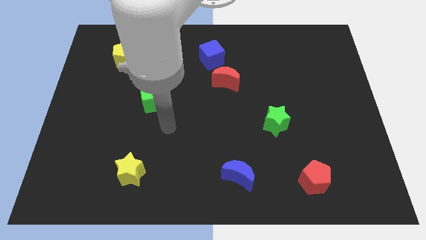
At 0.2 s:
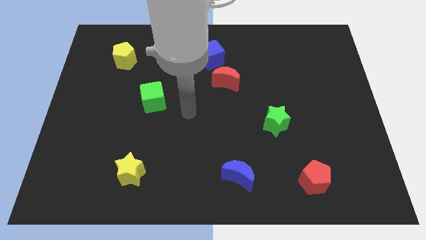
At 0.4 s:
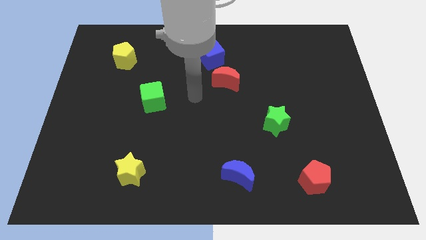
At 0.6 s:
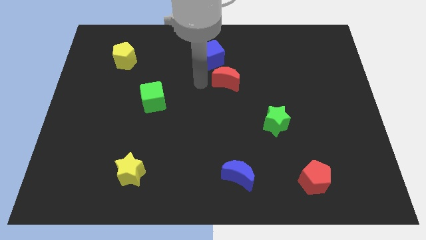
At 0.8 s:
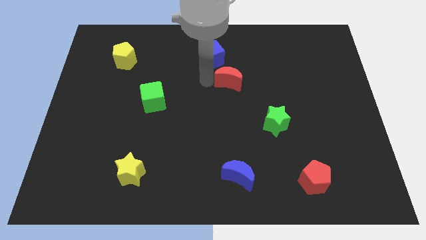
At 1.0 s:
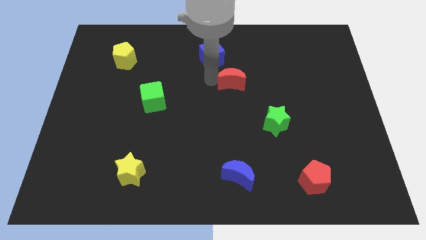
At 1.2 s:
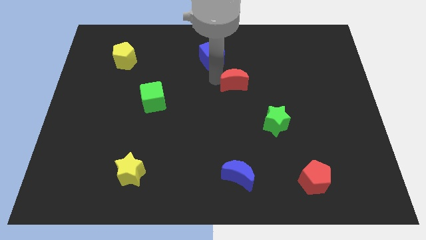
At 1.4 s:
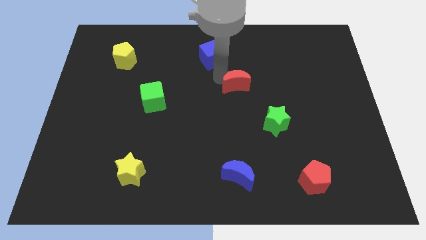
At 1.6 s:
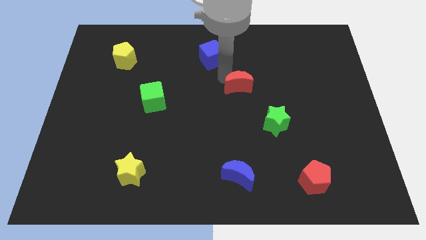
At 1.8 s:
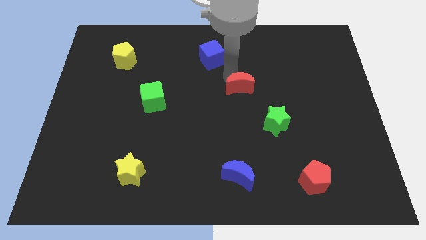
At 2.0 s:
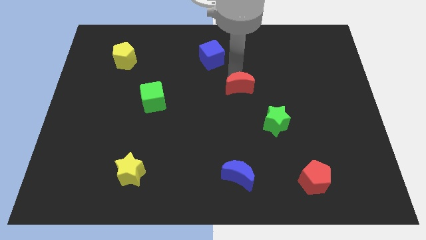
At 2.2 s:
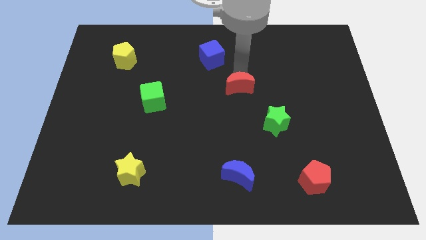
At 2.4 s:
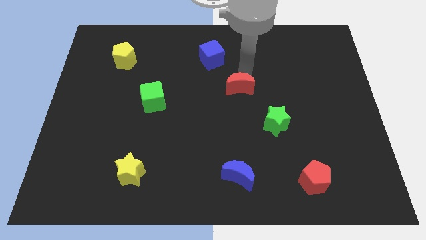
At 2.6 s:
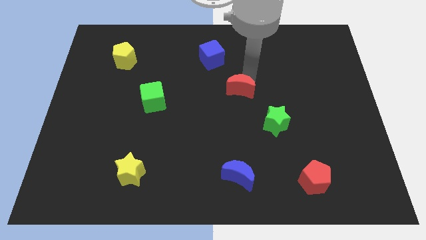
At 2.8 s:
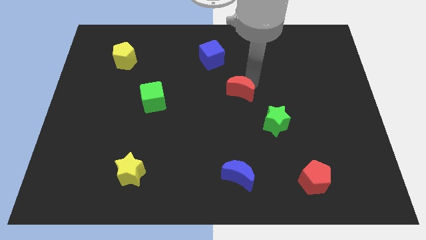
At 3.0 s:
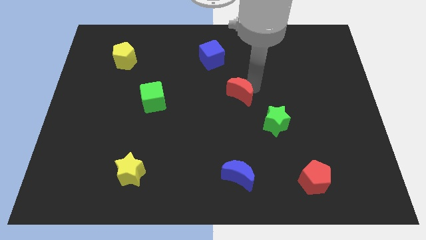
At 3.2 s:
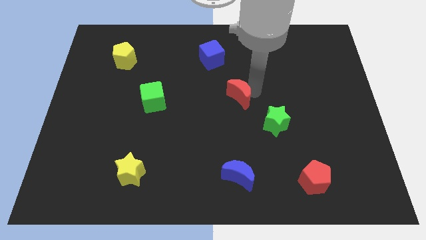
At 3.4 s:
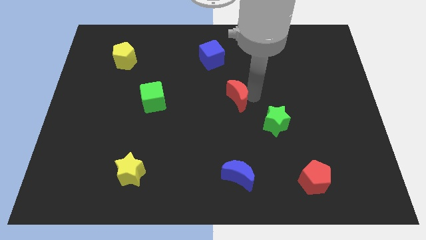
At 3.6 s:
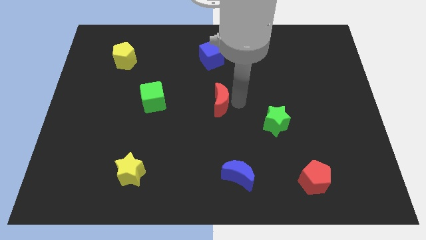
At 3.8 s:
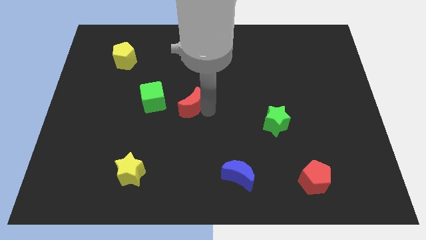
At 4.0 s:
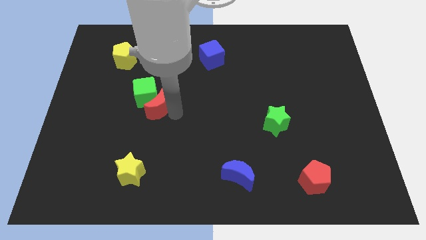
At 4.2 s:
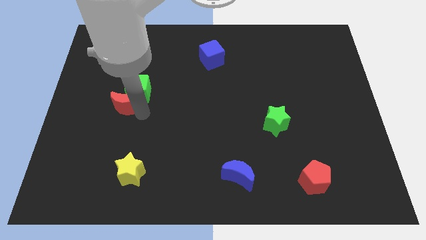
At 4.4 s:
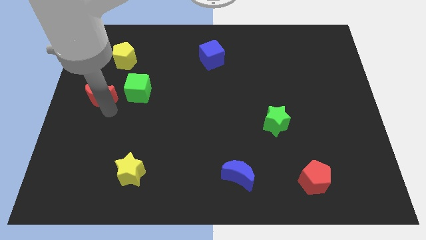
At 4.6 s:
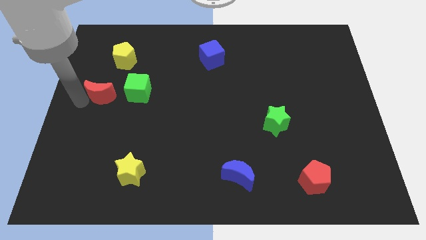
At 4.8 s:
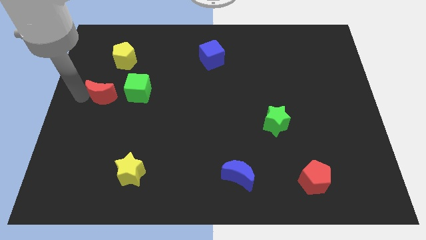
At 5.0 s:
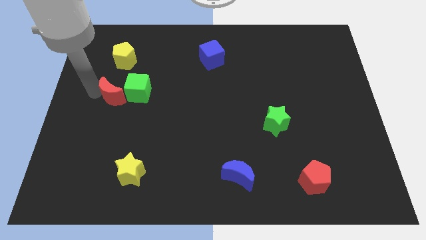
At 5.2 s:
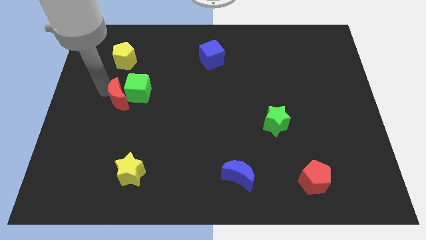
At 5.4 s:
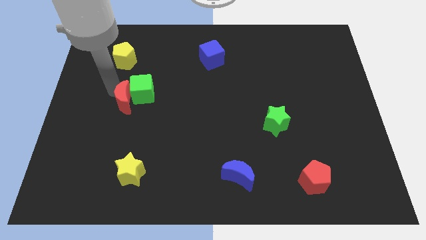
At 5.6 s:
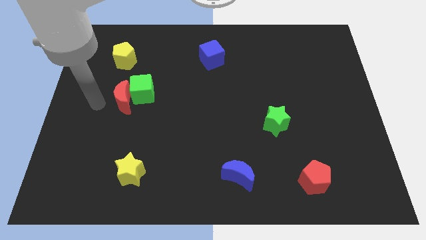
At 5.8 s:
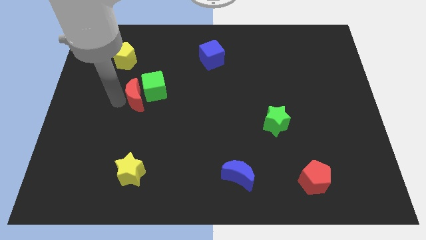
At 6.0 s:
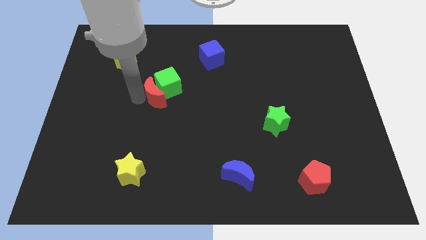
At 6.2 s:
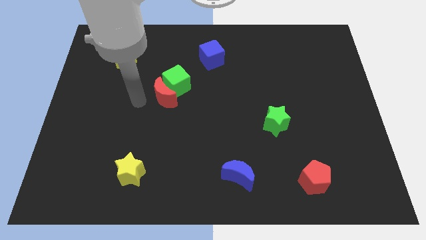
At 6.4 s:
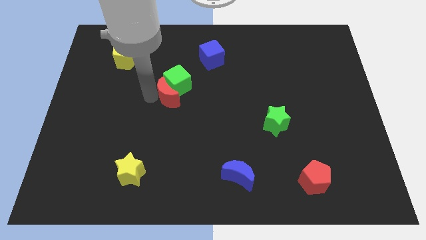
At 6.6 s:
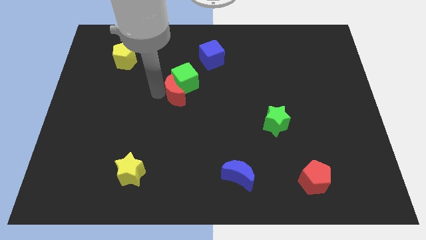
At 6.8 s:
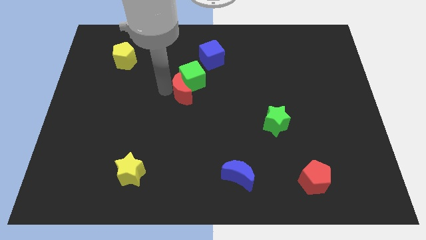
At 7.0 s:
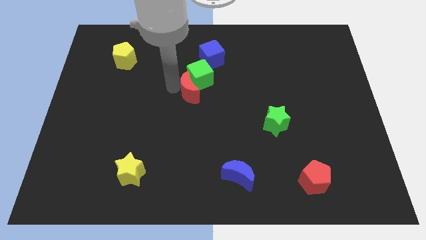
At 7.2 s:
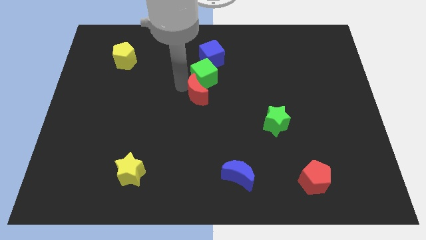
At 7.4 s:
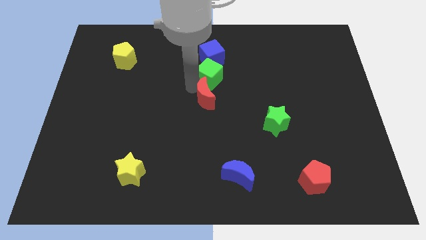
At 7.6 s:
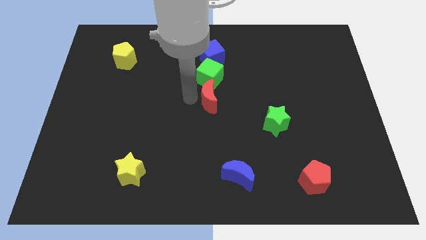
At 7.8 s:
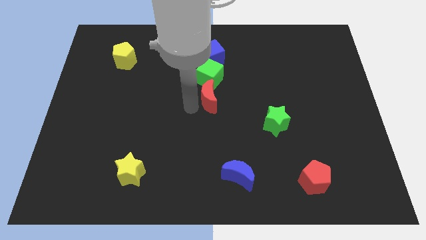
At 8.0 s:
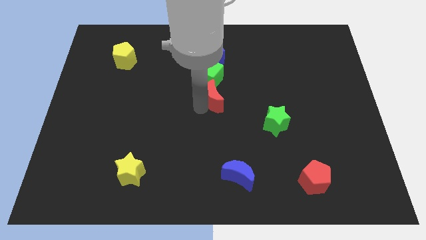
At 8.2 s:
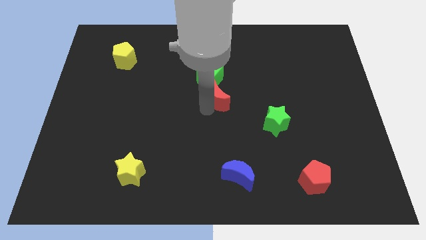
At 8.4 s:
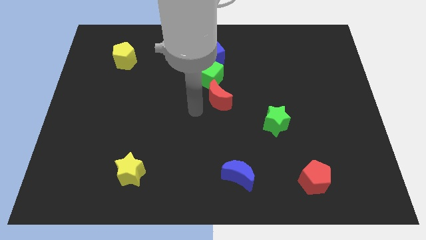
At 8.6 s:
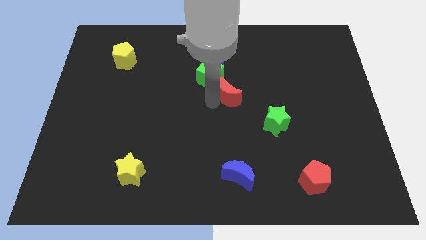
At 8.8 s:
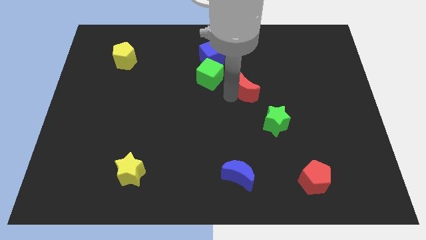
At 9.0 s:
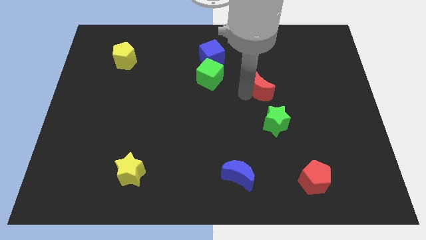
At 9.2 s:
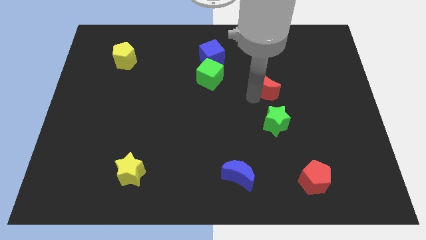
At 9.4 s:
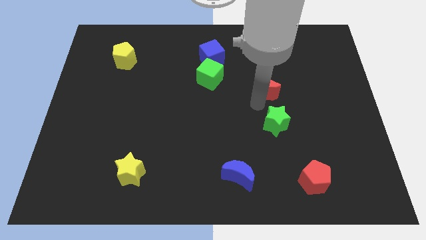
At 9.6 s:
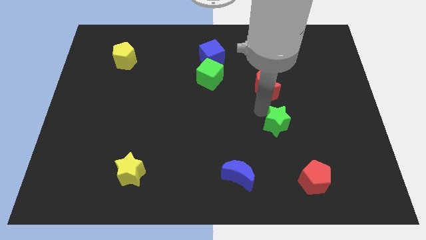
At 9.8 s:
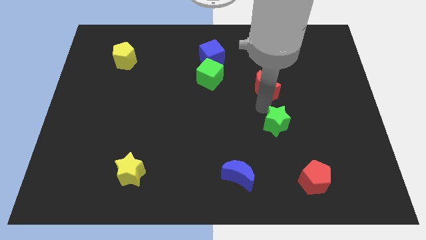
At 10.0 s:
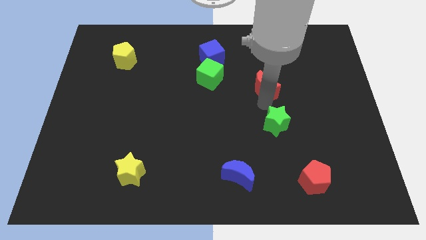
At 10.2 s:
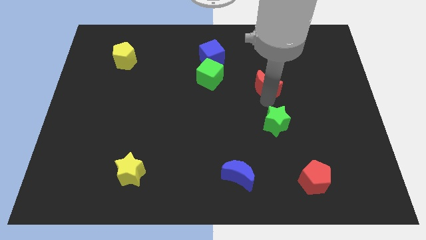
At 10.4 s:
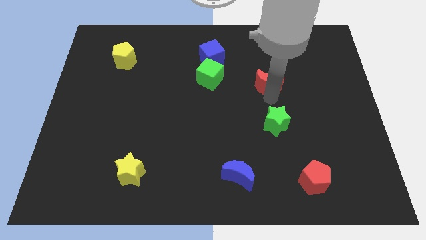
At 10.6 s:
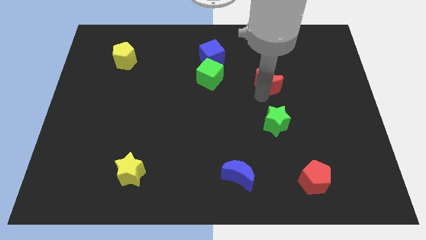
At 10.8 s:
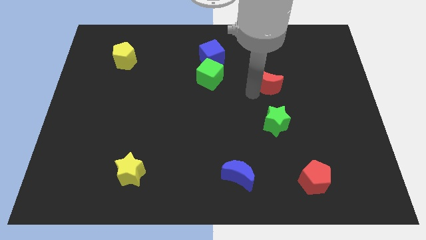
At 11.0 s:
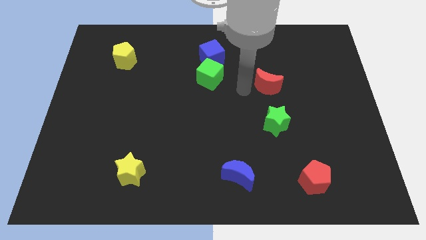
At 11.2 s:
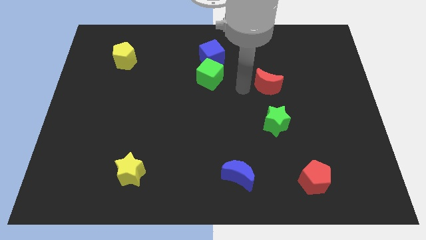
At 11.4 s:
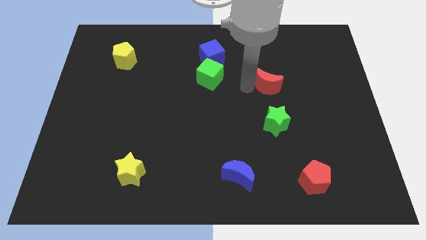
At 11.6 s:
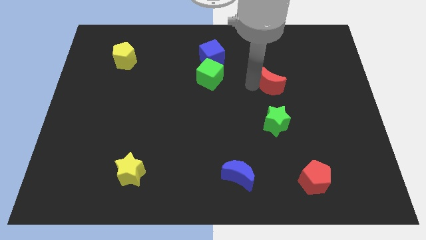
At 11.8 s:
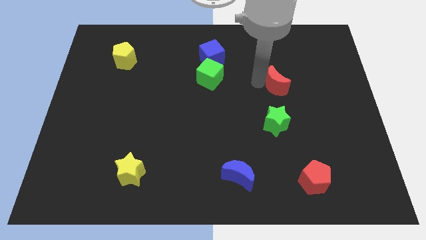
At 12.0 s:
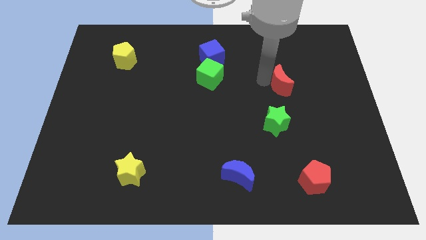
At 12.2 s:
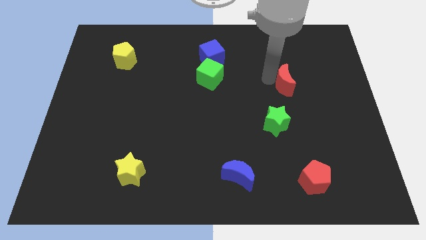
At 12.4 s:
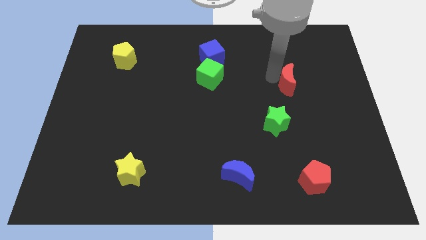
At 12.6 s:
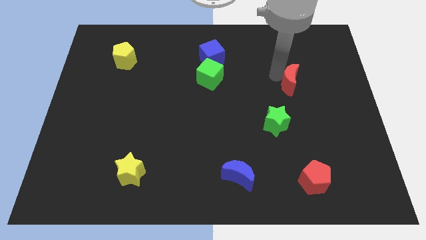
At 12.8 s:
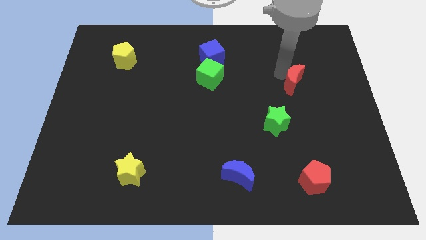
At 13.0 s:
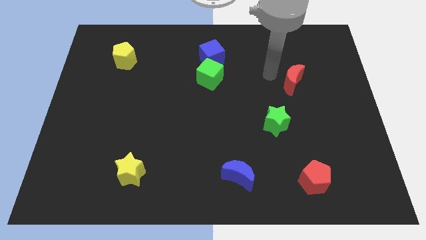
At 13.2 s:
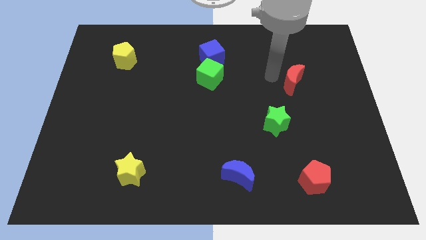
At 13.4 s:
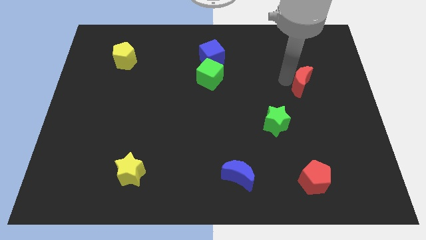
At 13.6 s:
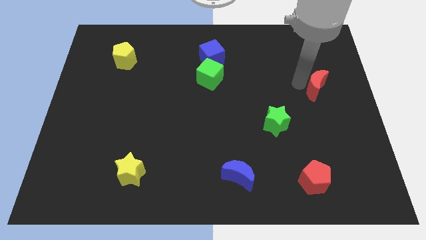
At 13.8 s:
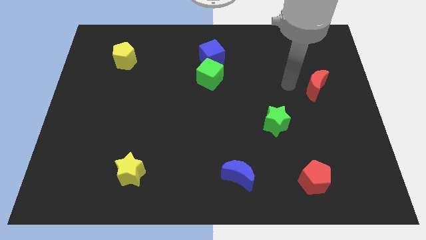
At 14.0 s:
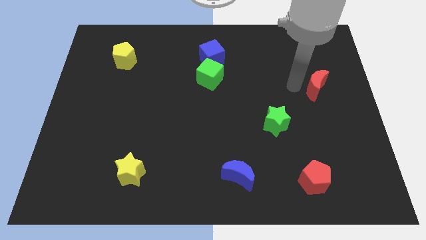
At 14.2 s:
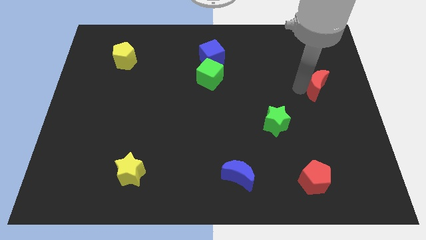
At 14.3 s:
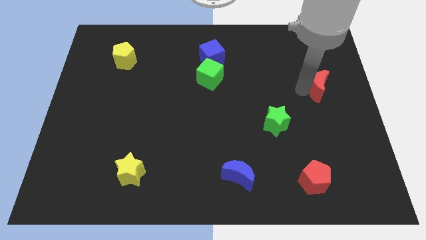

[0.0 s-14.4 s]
move the red moon to the right side of the board
